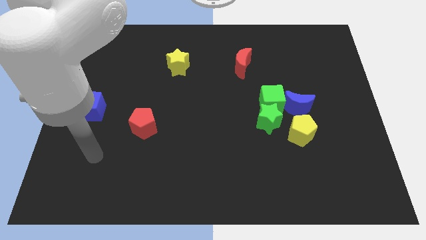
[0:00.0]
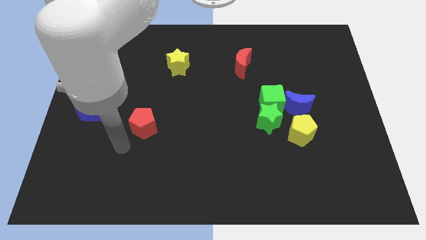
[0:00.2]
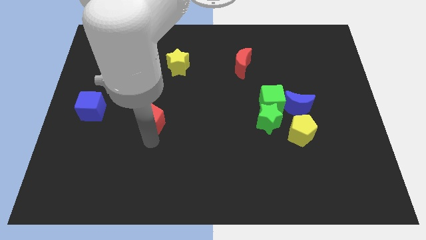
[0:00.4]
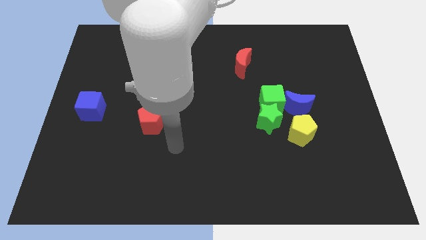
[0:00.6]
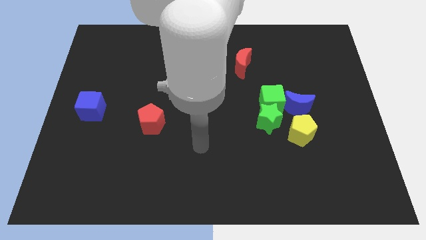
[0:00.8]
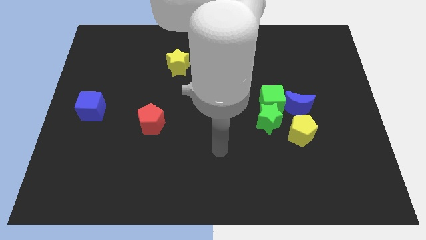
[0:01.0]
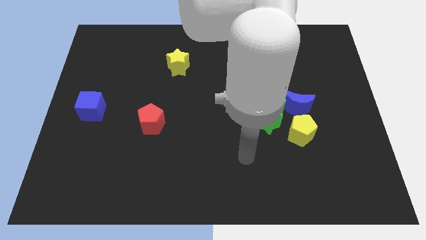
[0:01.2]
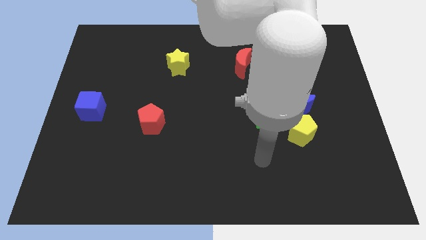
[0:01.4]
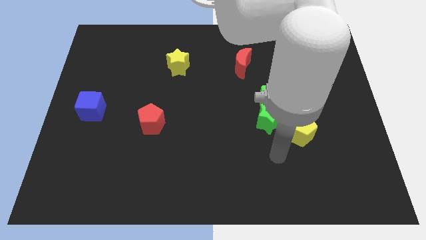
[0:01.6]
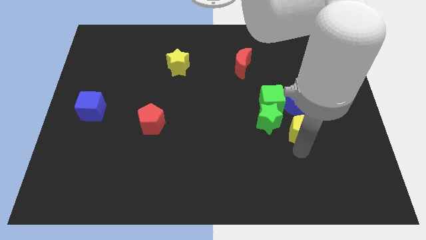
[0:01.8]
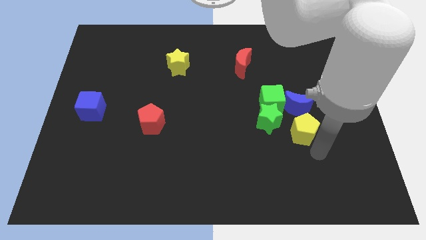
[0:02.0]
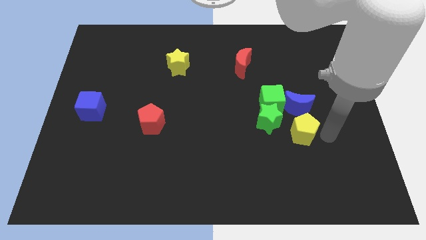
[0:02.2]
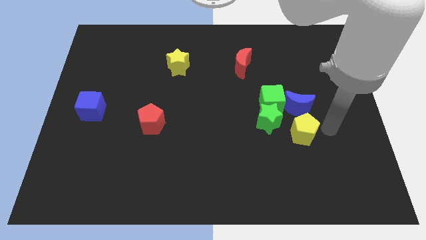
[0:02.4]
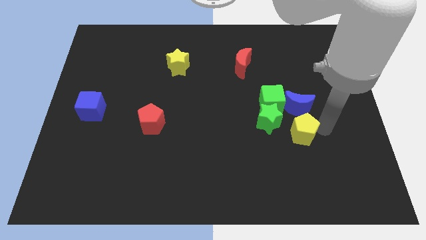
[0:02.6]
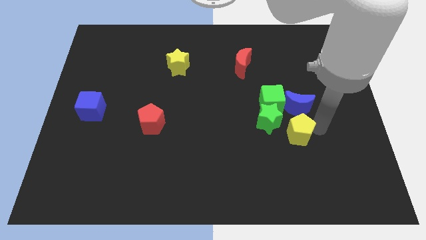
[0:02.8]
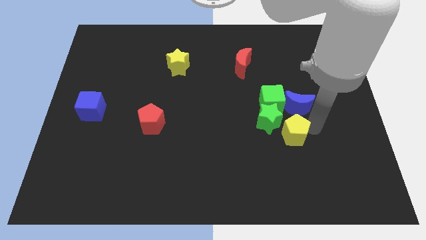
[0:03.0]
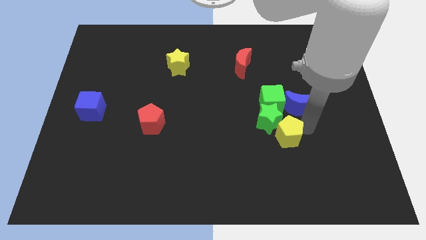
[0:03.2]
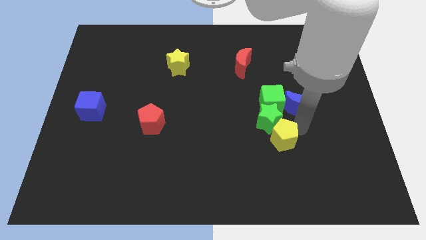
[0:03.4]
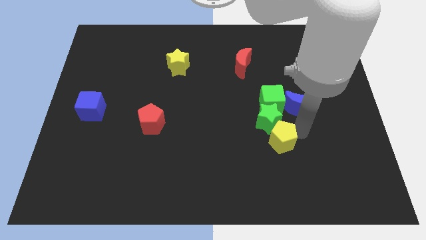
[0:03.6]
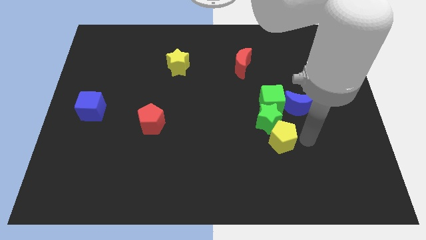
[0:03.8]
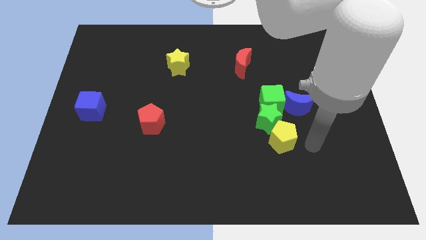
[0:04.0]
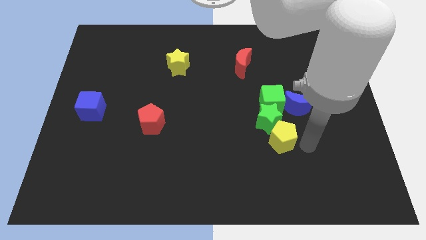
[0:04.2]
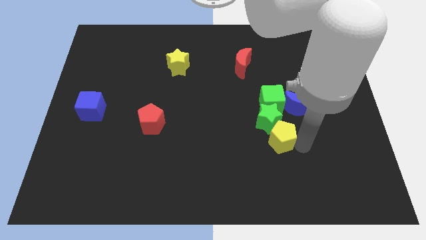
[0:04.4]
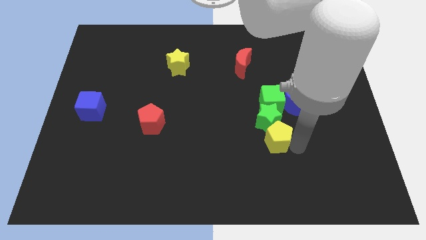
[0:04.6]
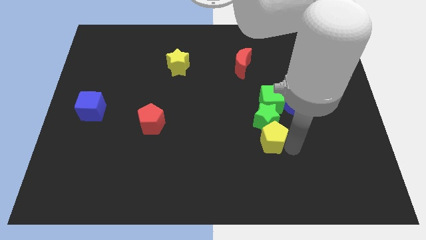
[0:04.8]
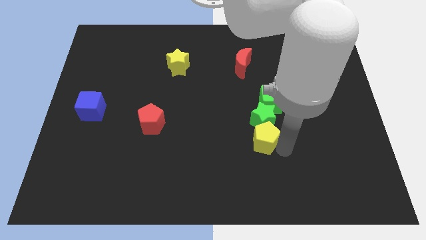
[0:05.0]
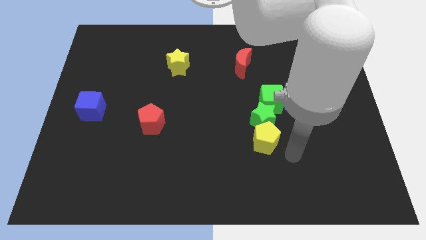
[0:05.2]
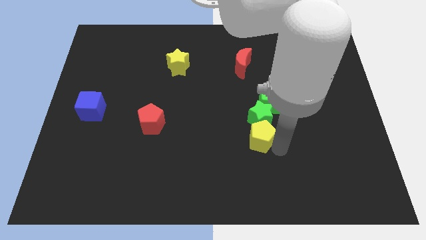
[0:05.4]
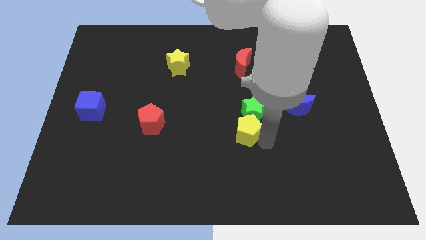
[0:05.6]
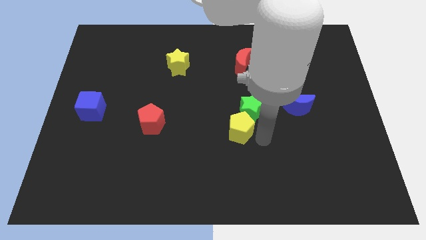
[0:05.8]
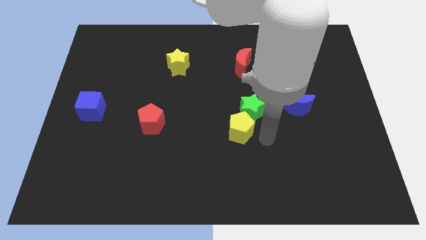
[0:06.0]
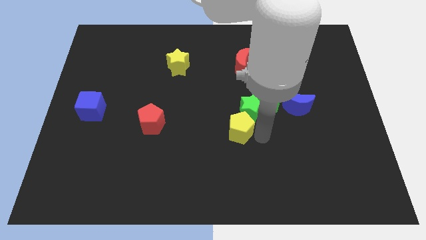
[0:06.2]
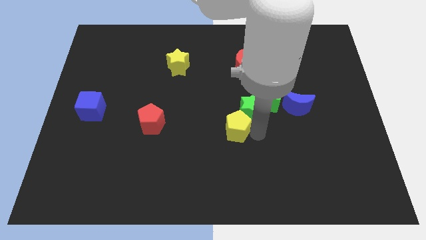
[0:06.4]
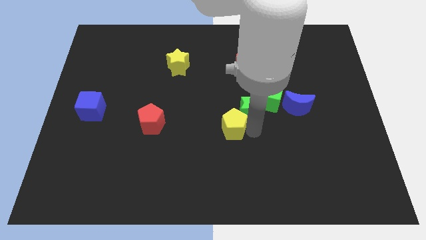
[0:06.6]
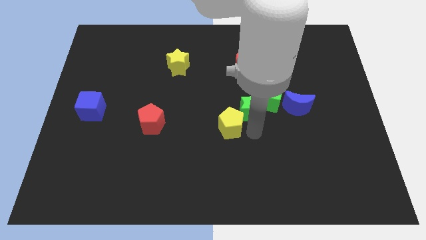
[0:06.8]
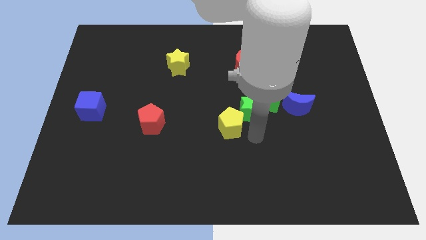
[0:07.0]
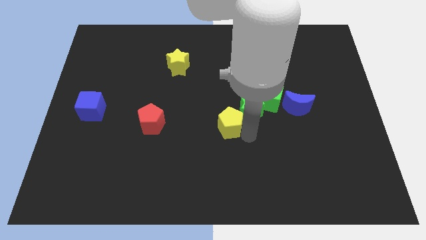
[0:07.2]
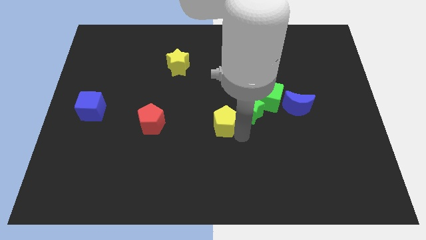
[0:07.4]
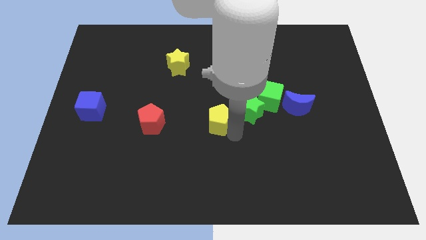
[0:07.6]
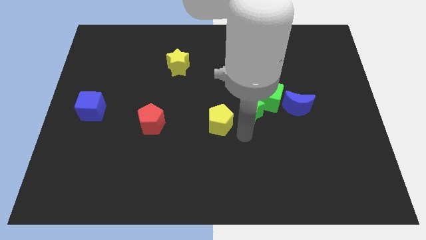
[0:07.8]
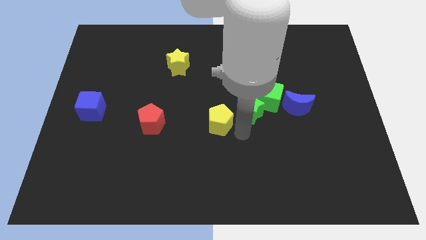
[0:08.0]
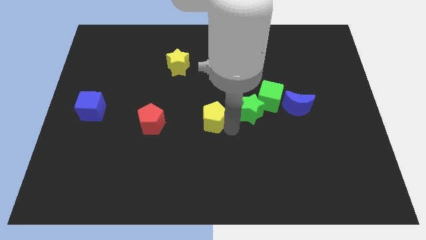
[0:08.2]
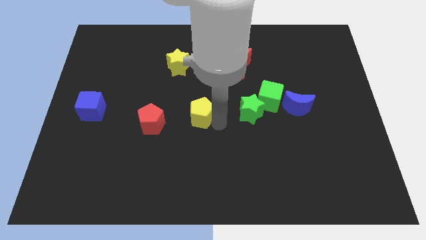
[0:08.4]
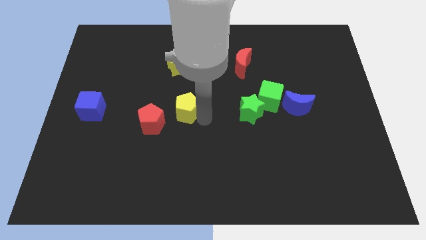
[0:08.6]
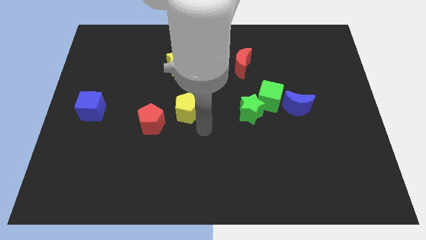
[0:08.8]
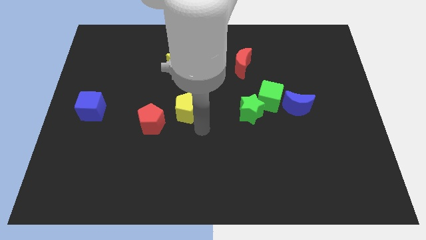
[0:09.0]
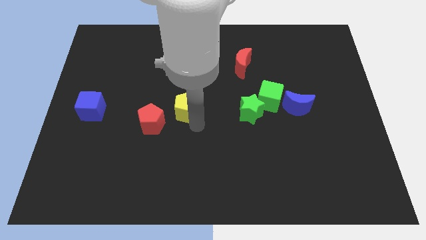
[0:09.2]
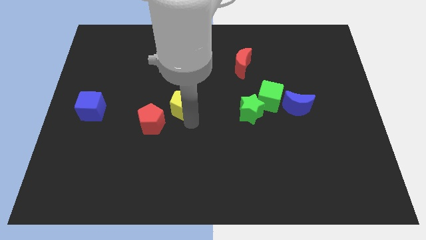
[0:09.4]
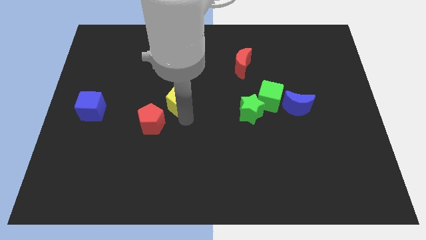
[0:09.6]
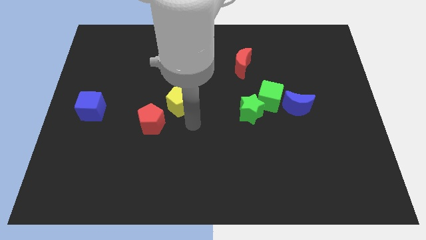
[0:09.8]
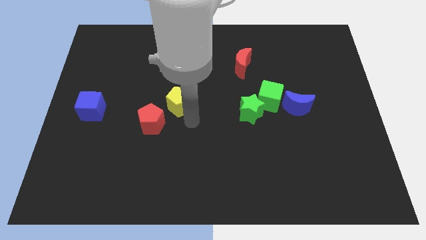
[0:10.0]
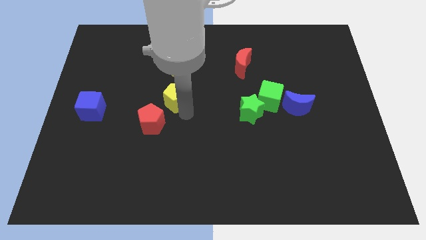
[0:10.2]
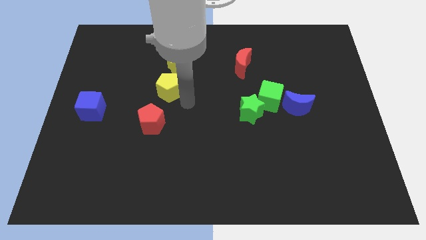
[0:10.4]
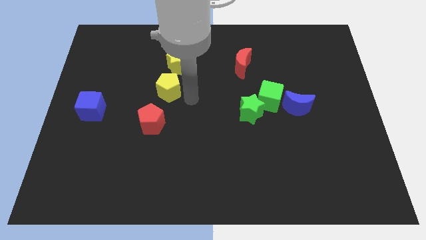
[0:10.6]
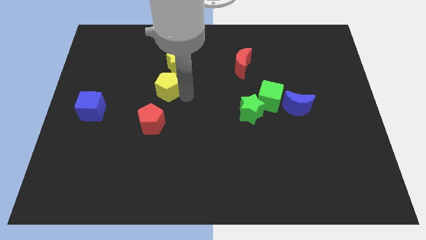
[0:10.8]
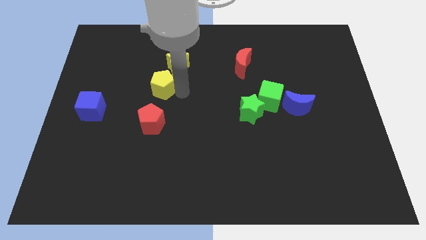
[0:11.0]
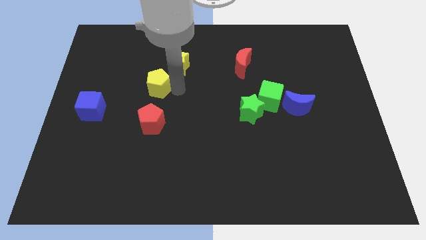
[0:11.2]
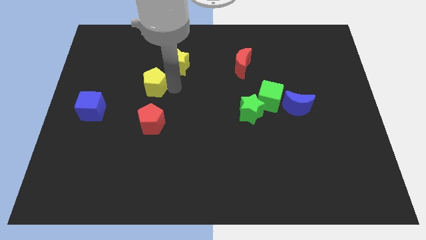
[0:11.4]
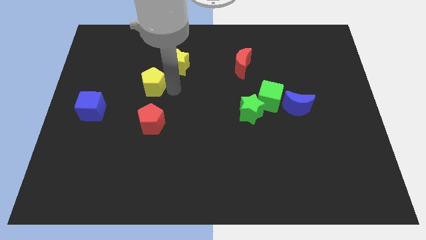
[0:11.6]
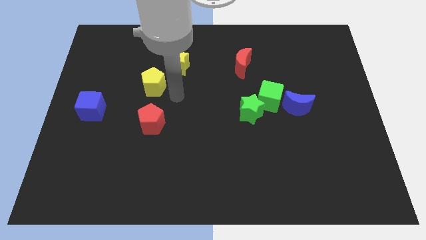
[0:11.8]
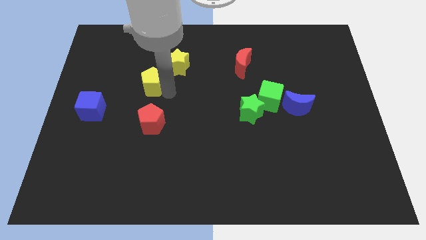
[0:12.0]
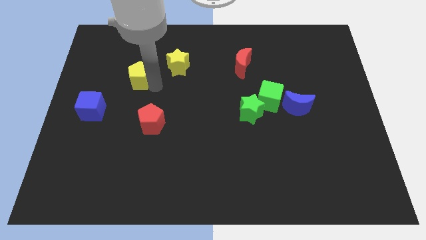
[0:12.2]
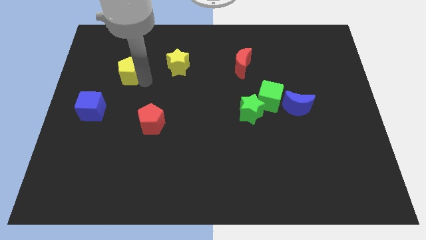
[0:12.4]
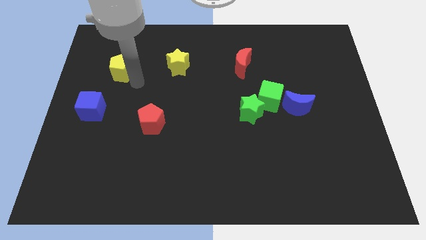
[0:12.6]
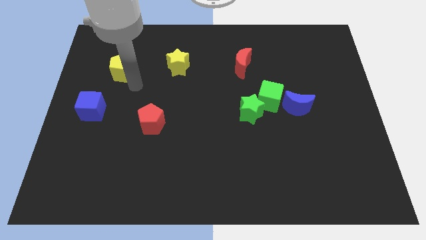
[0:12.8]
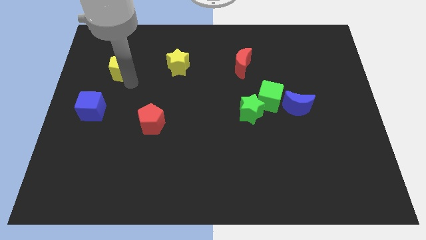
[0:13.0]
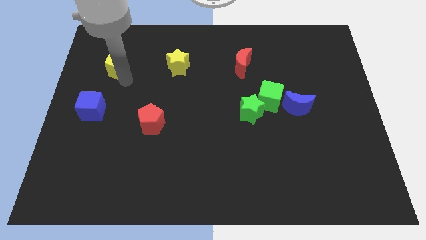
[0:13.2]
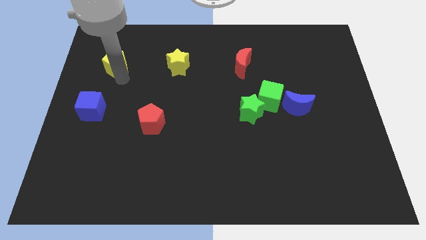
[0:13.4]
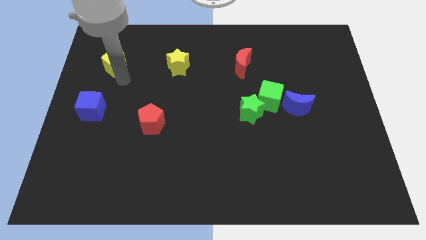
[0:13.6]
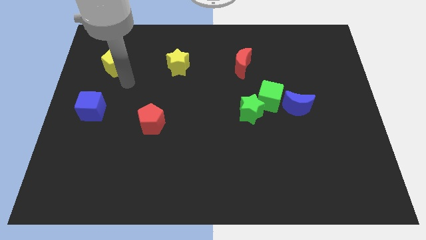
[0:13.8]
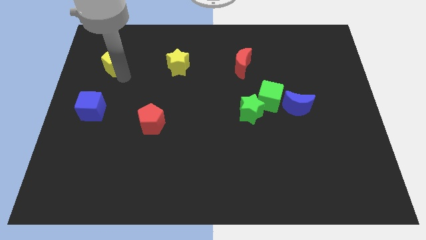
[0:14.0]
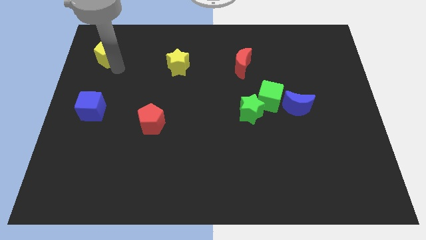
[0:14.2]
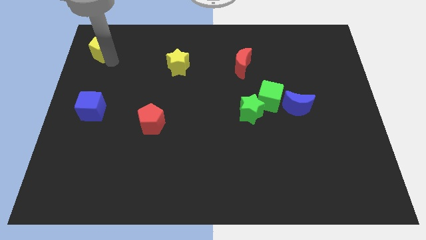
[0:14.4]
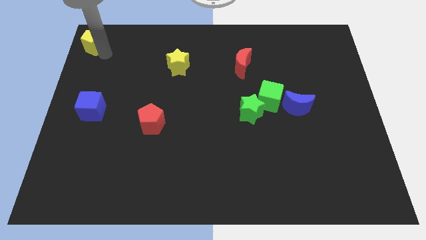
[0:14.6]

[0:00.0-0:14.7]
put the yellow pentagon to the top left corner
